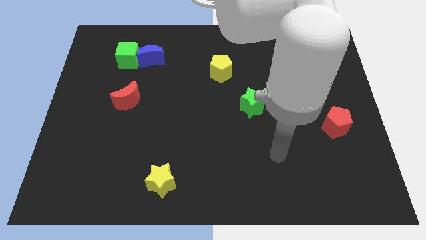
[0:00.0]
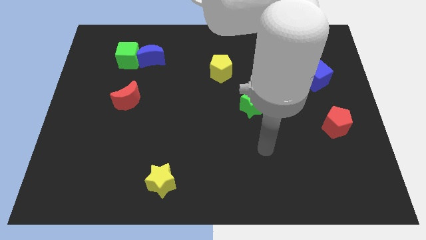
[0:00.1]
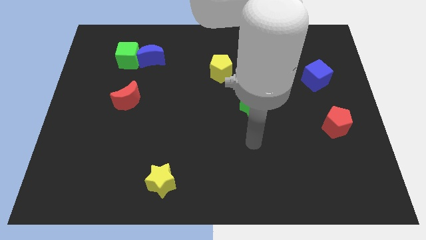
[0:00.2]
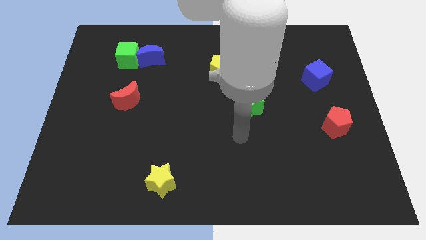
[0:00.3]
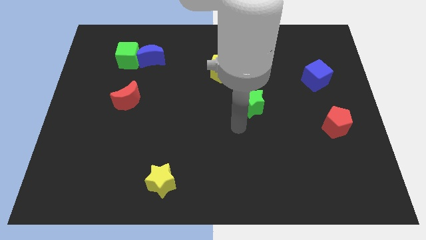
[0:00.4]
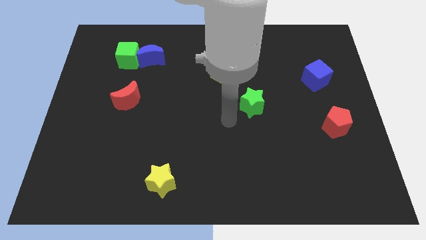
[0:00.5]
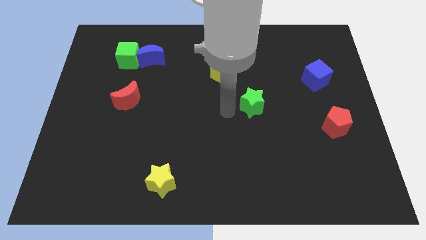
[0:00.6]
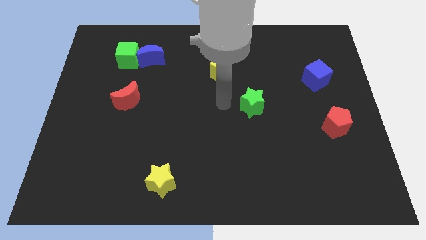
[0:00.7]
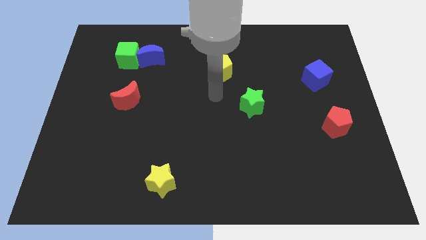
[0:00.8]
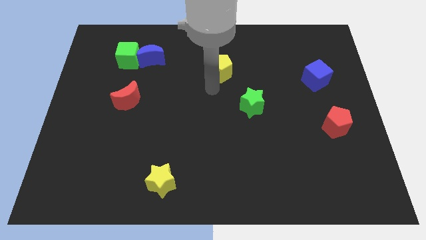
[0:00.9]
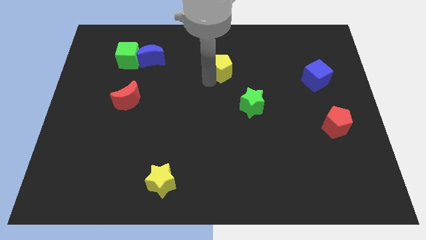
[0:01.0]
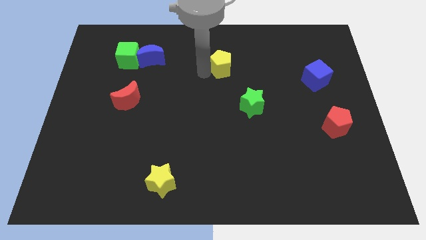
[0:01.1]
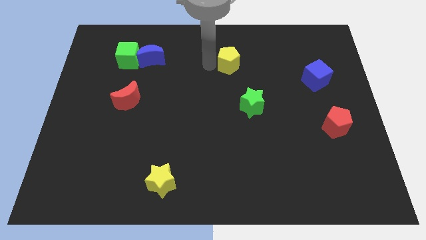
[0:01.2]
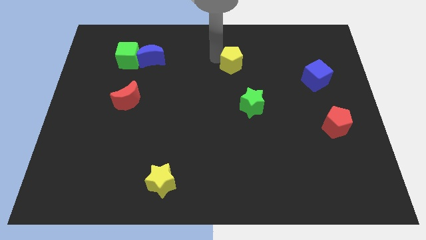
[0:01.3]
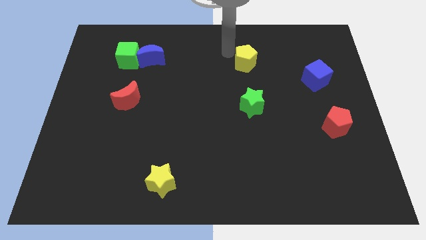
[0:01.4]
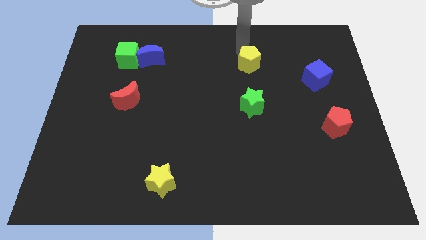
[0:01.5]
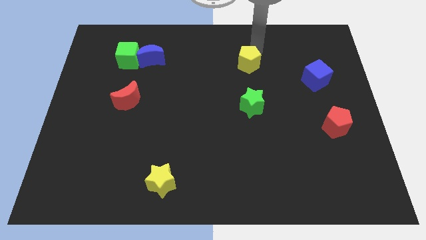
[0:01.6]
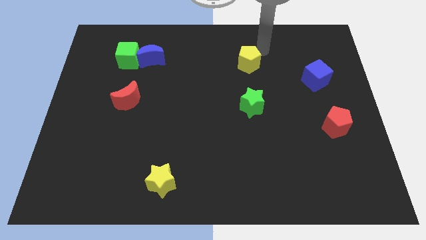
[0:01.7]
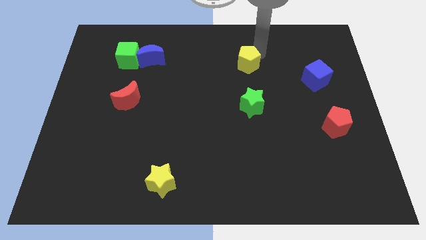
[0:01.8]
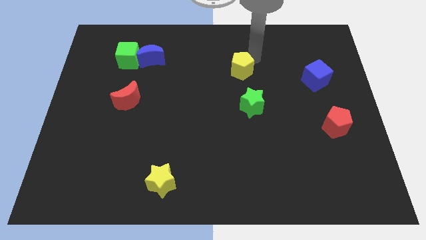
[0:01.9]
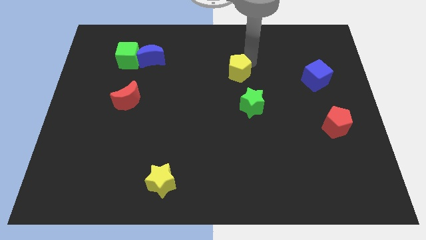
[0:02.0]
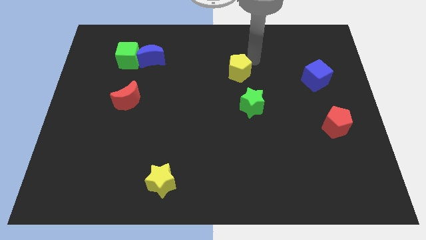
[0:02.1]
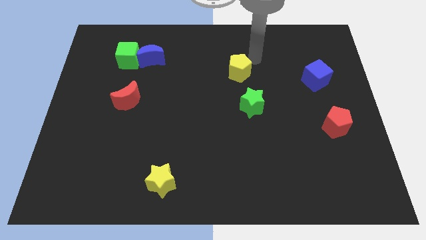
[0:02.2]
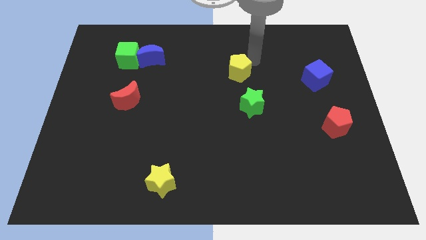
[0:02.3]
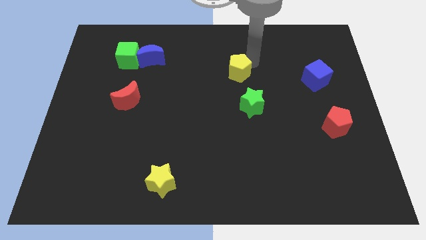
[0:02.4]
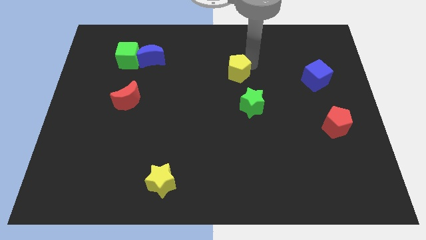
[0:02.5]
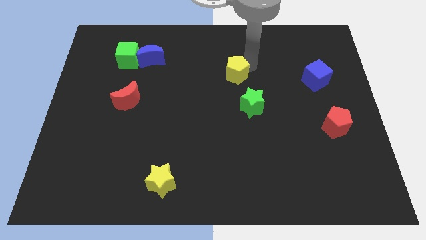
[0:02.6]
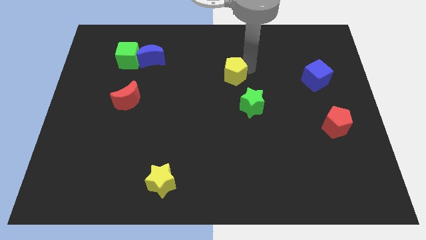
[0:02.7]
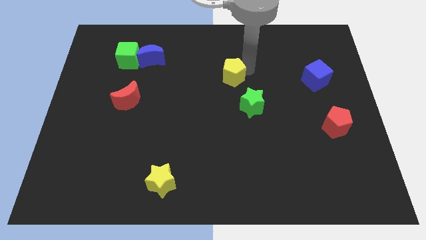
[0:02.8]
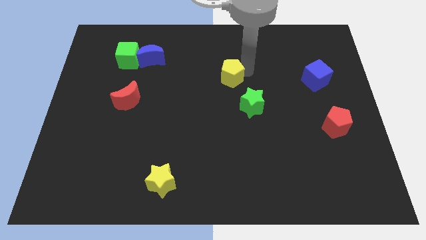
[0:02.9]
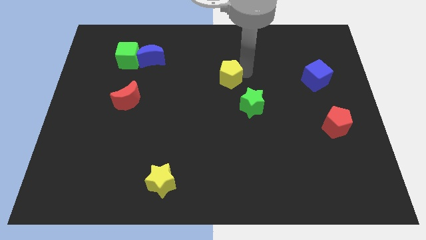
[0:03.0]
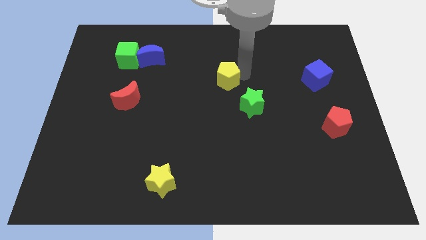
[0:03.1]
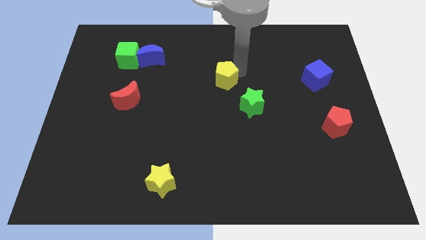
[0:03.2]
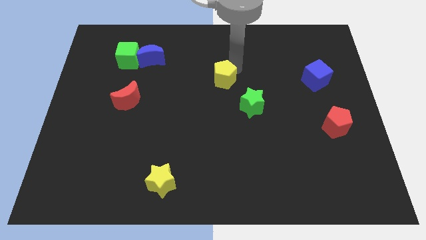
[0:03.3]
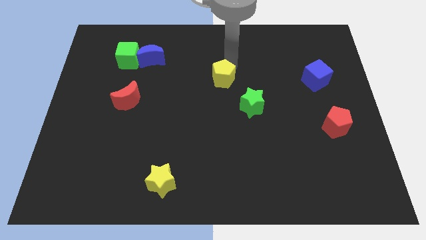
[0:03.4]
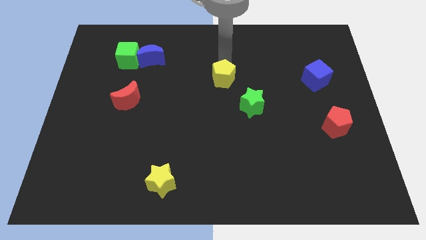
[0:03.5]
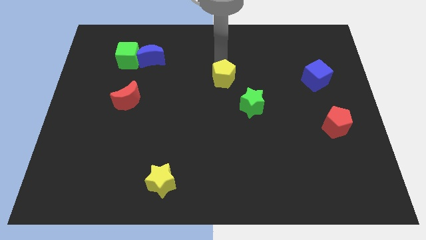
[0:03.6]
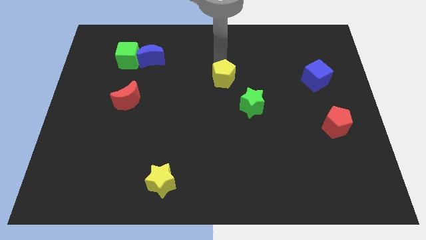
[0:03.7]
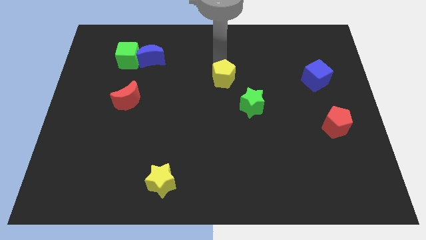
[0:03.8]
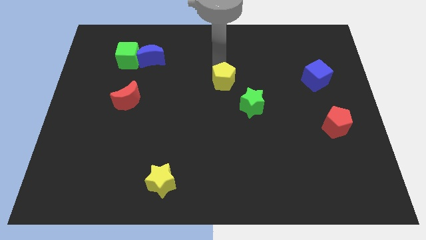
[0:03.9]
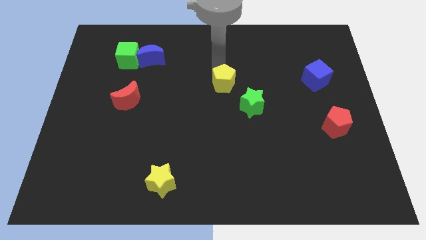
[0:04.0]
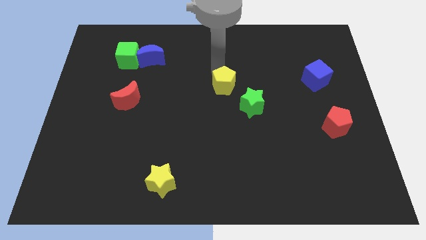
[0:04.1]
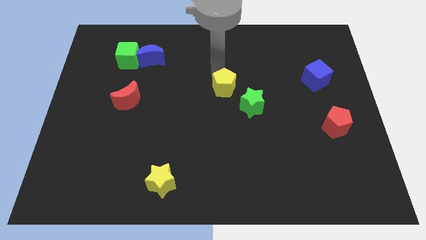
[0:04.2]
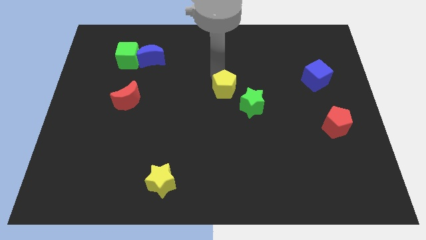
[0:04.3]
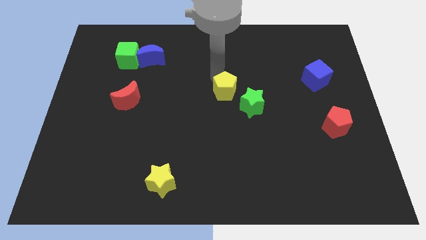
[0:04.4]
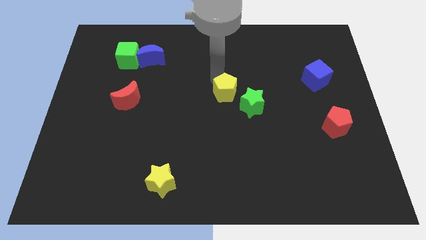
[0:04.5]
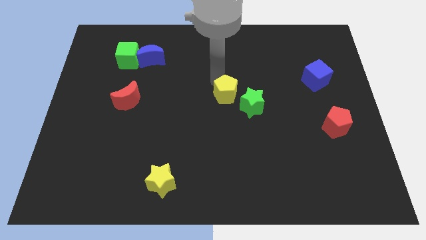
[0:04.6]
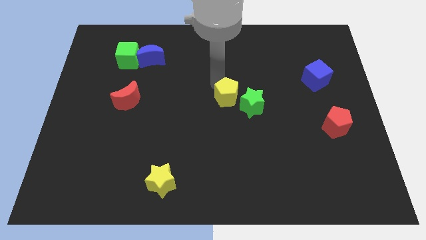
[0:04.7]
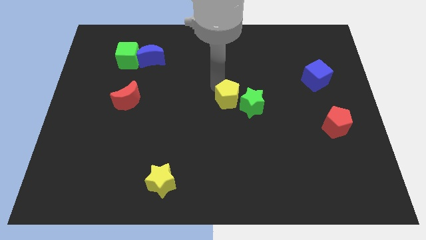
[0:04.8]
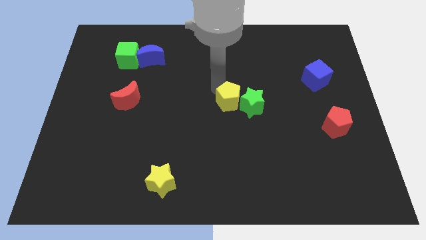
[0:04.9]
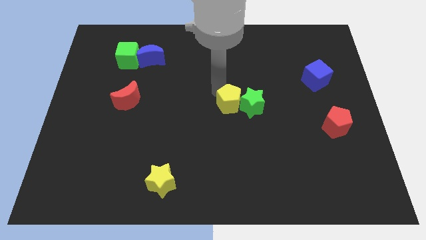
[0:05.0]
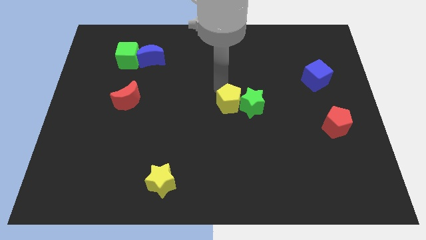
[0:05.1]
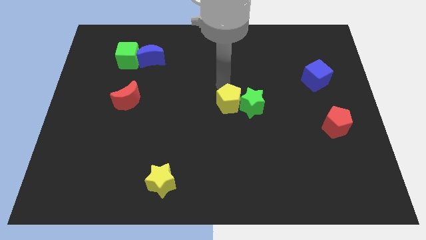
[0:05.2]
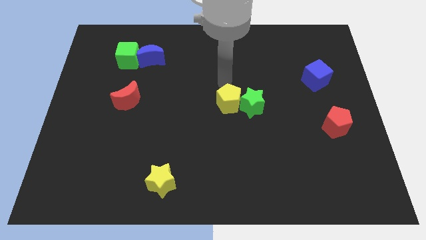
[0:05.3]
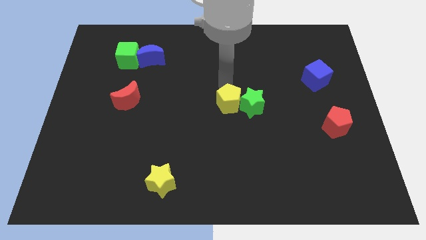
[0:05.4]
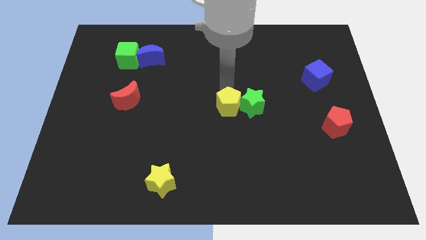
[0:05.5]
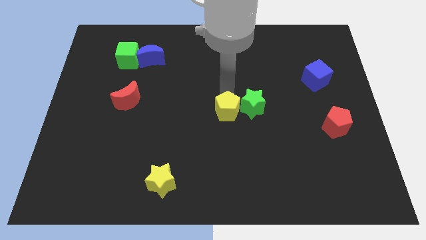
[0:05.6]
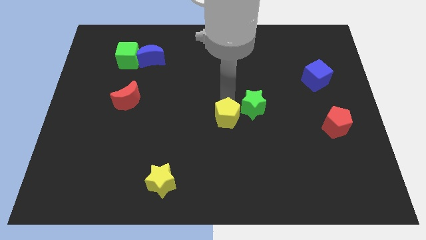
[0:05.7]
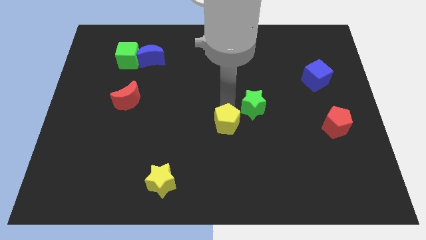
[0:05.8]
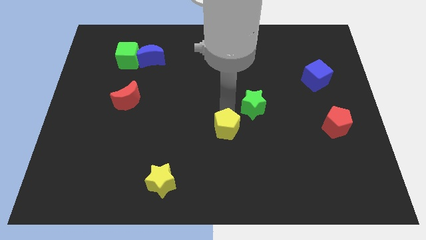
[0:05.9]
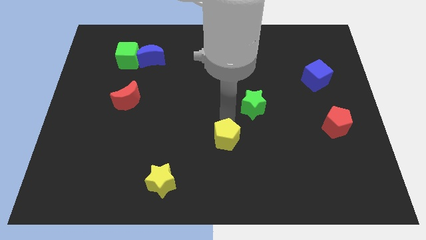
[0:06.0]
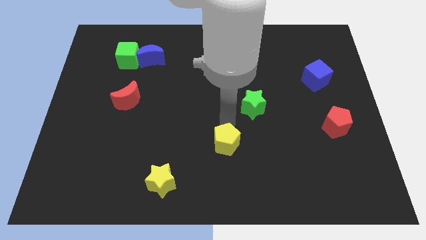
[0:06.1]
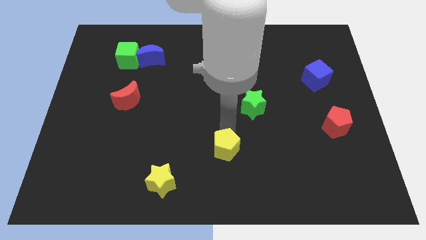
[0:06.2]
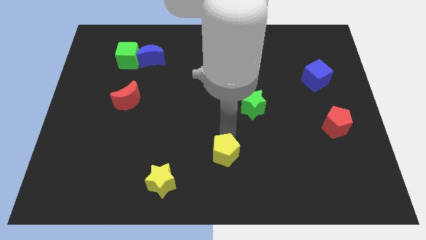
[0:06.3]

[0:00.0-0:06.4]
move the yellow pentagon to the bottom side

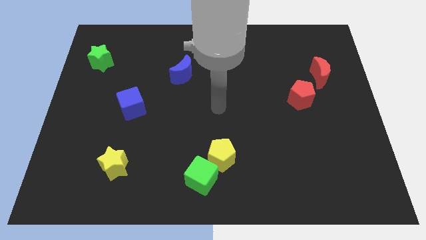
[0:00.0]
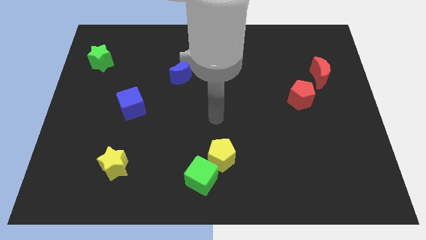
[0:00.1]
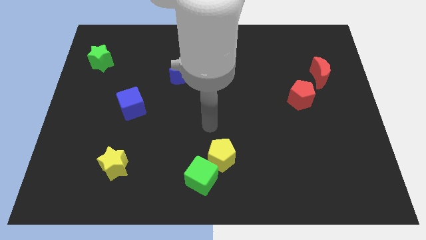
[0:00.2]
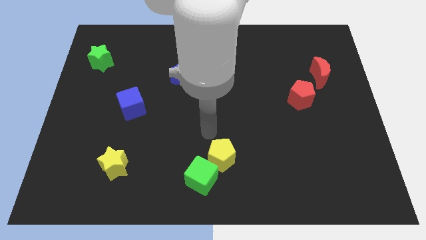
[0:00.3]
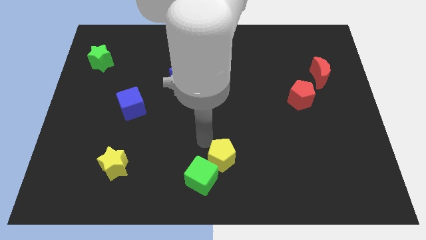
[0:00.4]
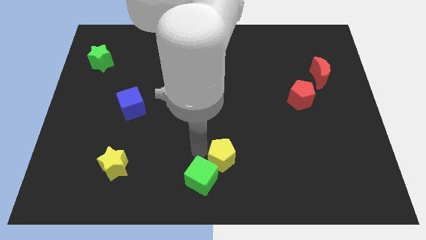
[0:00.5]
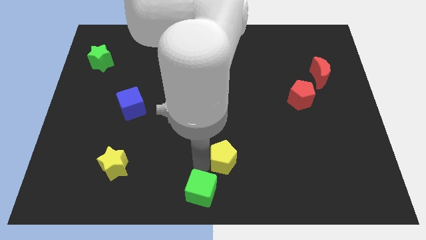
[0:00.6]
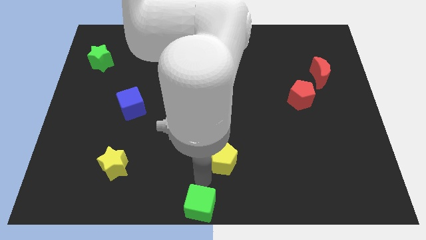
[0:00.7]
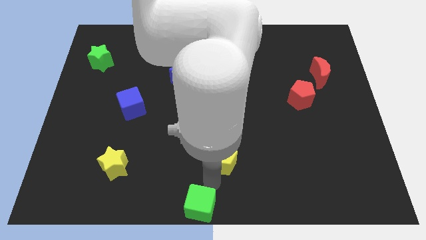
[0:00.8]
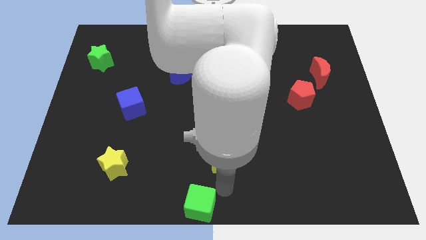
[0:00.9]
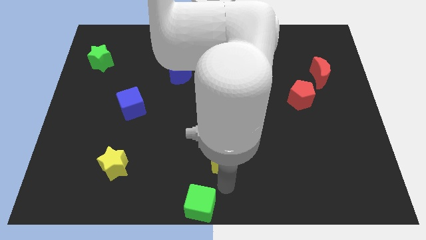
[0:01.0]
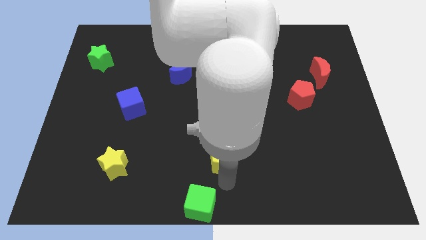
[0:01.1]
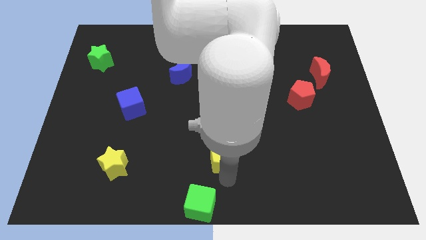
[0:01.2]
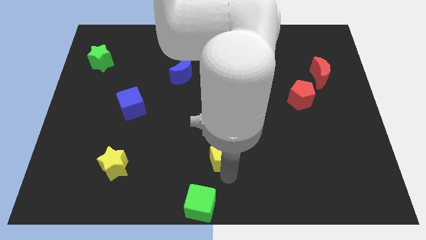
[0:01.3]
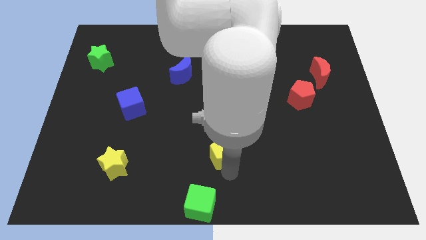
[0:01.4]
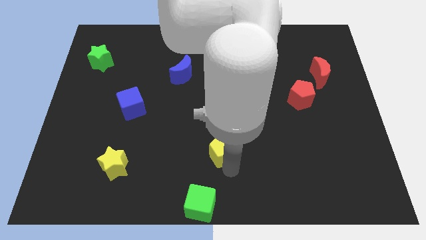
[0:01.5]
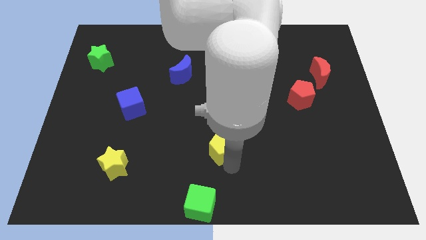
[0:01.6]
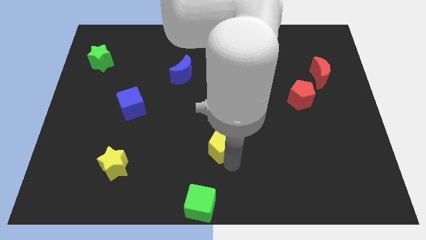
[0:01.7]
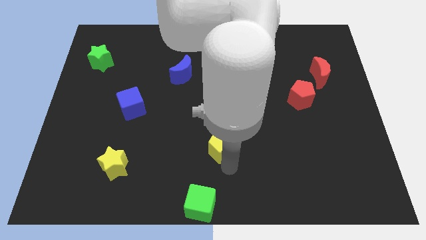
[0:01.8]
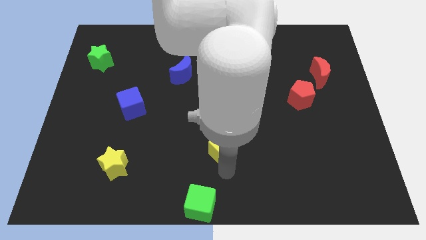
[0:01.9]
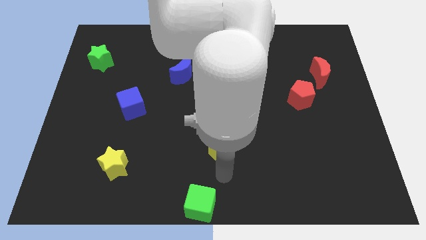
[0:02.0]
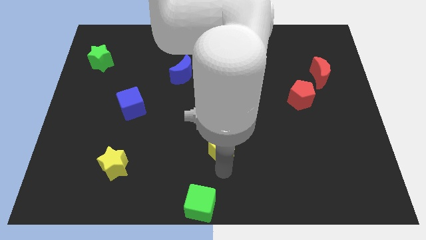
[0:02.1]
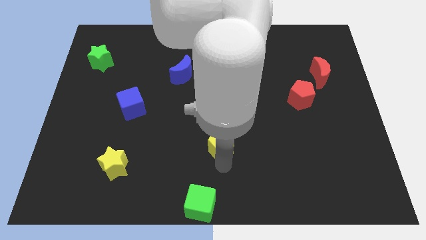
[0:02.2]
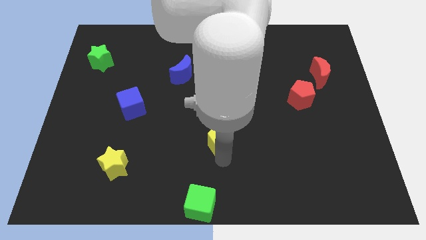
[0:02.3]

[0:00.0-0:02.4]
put the yellow pentagon to the middle
